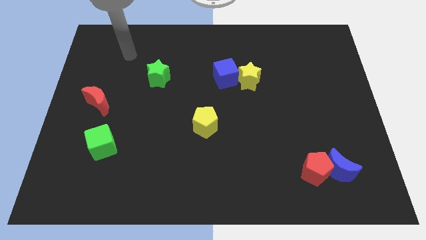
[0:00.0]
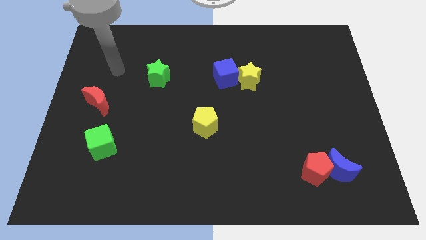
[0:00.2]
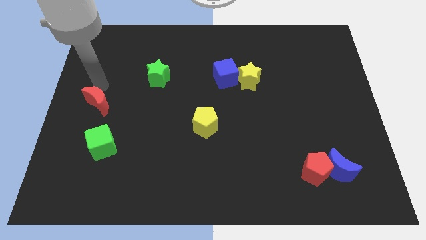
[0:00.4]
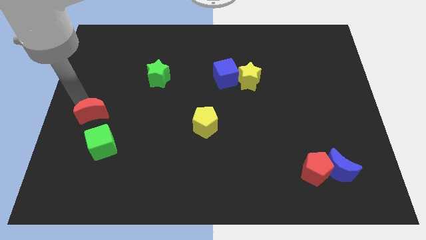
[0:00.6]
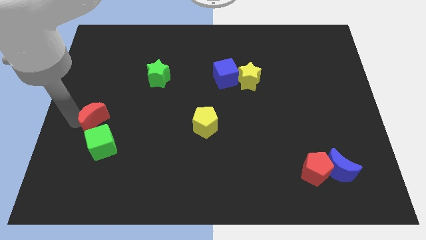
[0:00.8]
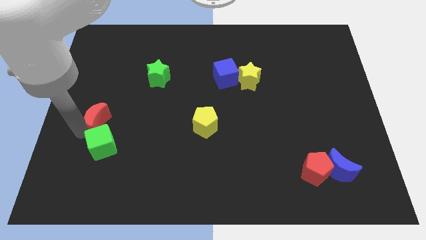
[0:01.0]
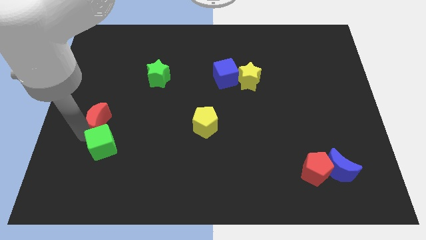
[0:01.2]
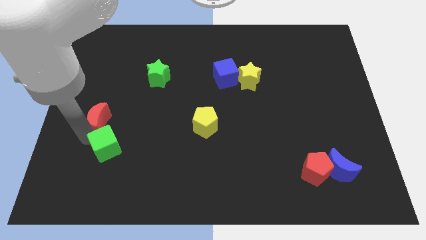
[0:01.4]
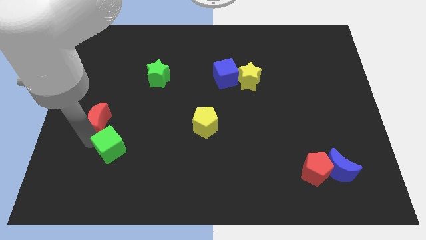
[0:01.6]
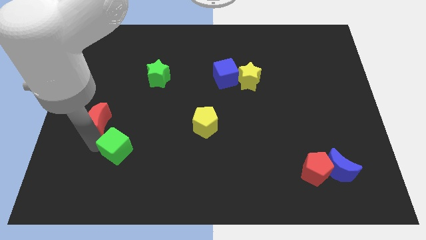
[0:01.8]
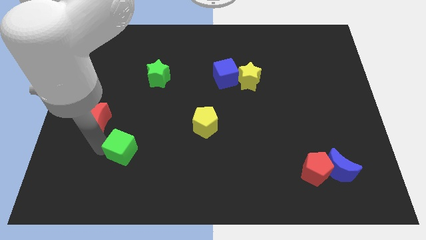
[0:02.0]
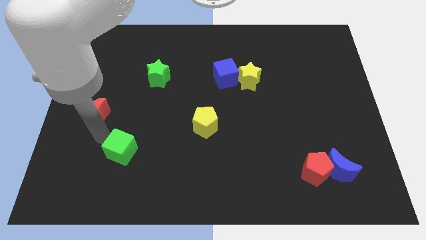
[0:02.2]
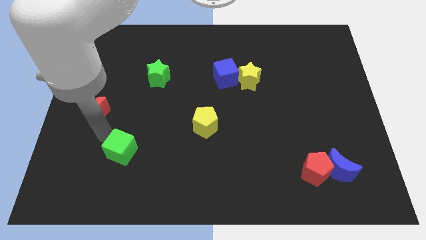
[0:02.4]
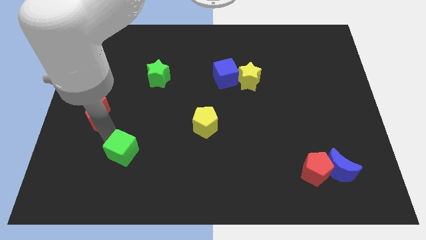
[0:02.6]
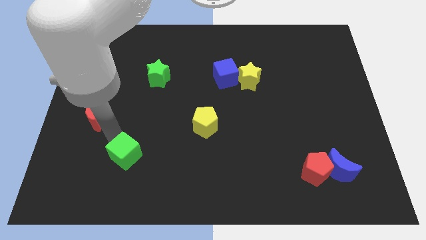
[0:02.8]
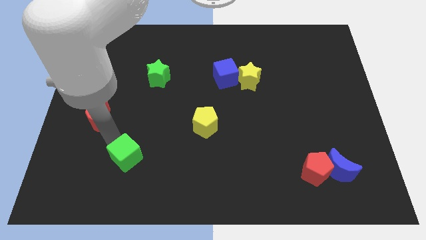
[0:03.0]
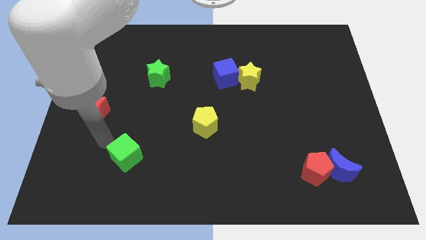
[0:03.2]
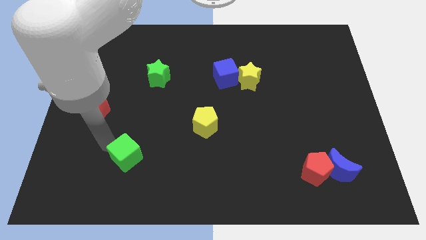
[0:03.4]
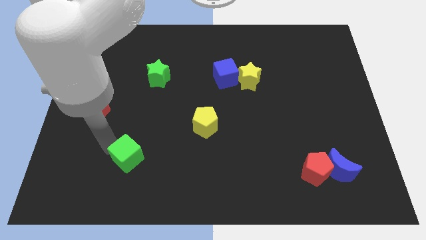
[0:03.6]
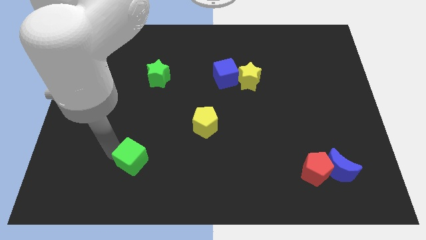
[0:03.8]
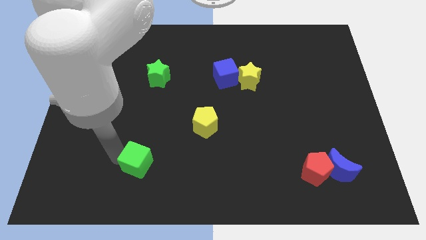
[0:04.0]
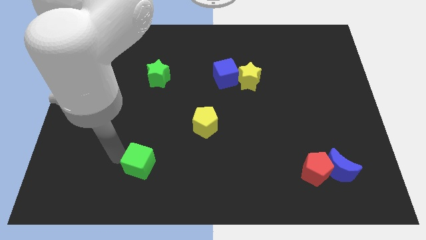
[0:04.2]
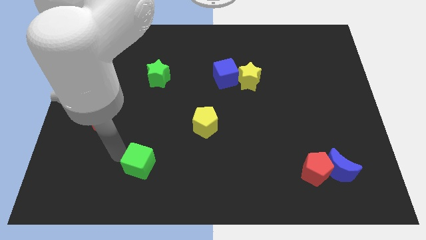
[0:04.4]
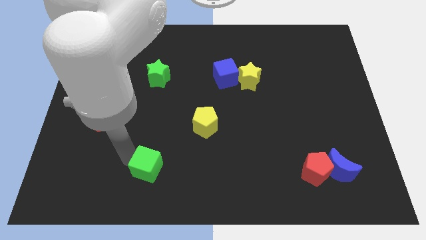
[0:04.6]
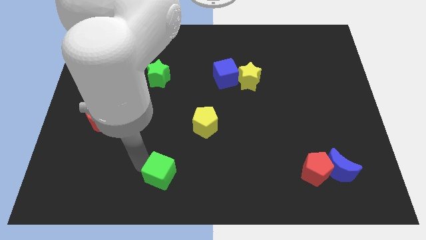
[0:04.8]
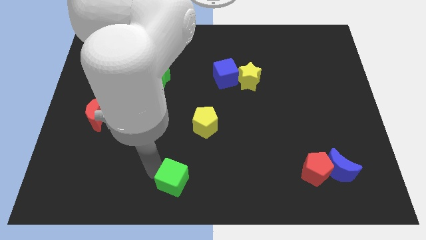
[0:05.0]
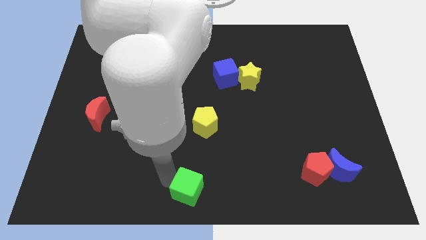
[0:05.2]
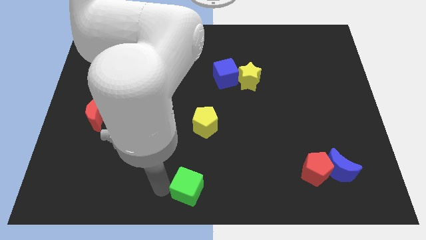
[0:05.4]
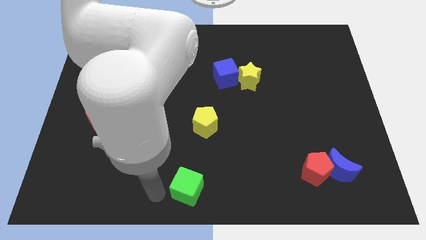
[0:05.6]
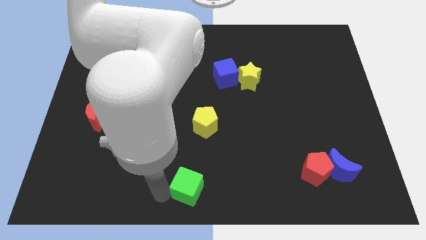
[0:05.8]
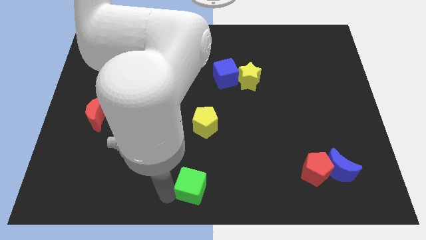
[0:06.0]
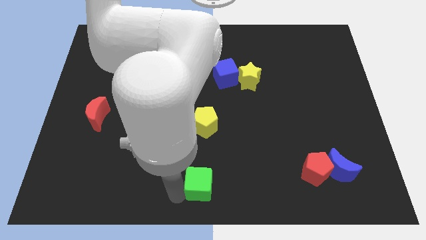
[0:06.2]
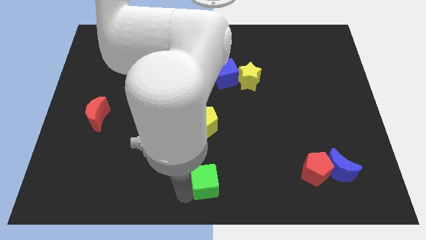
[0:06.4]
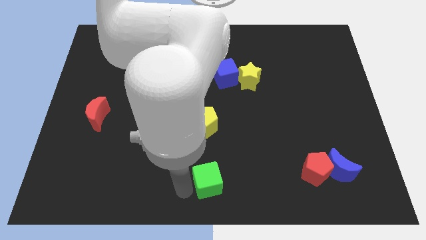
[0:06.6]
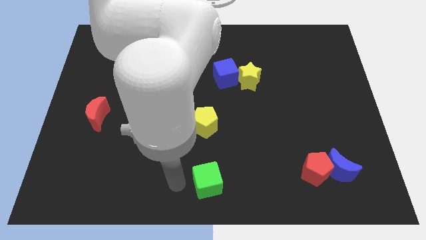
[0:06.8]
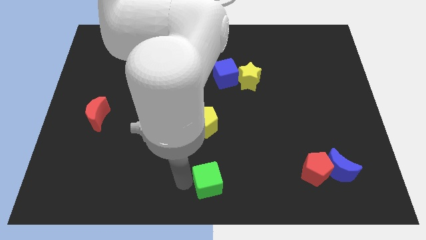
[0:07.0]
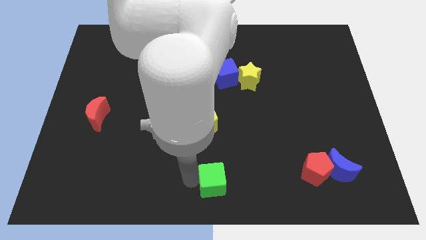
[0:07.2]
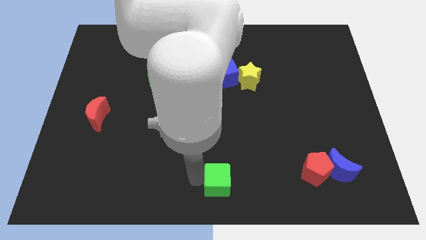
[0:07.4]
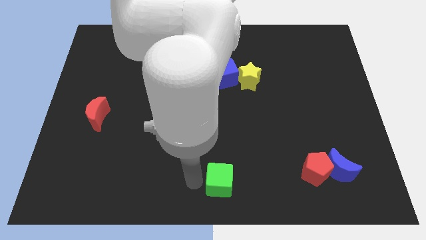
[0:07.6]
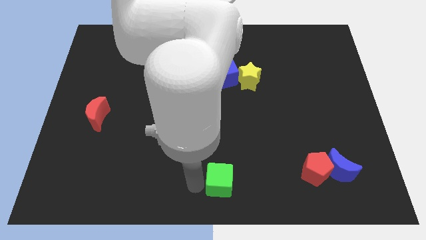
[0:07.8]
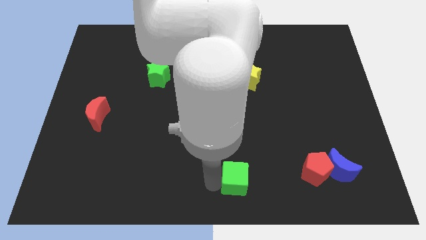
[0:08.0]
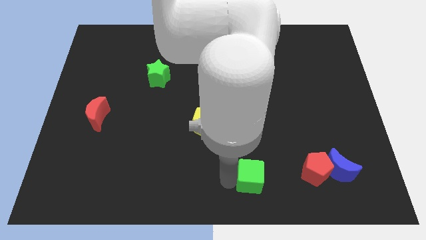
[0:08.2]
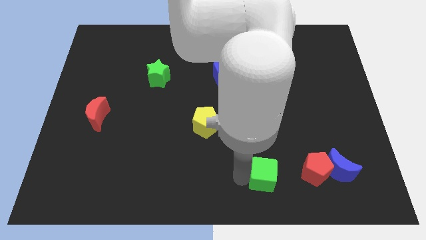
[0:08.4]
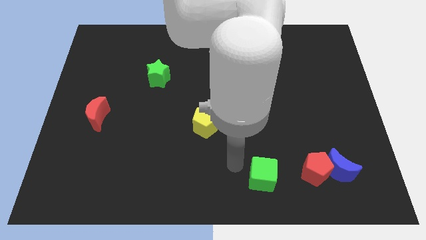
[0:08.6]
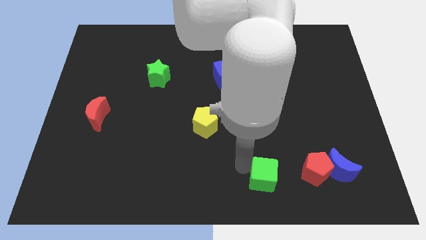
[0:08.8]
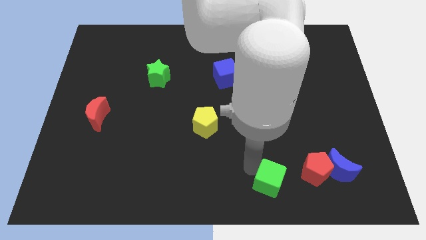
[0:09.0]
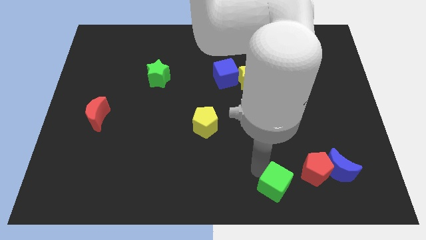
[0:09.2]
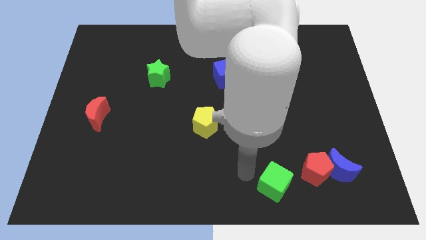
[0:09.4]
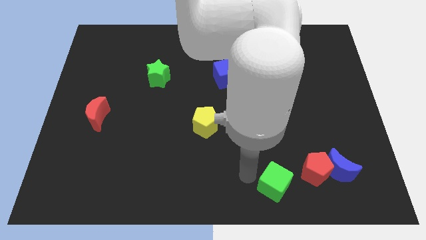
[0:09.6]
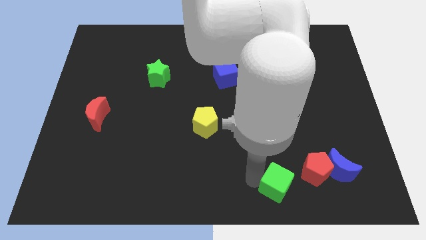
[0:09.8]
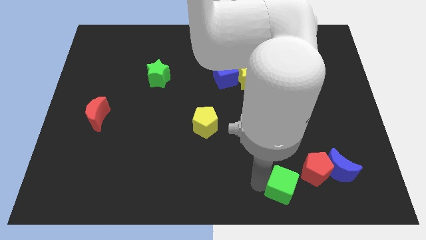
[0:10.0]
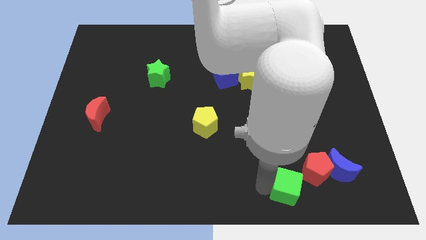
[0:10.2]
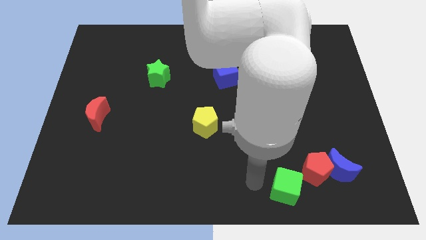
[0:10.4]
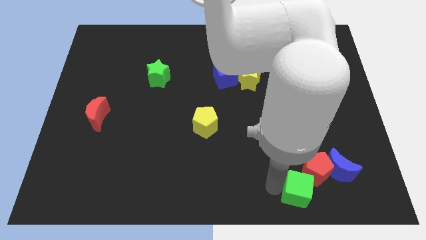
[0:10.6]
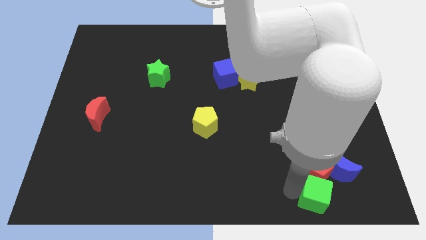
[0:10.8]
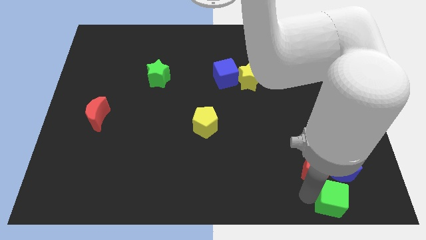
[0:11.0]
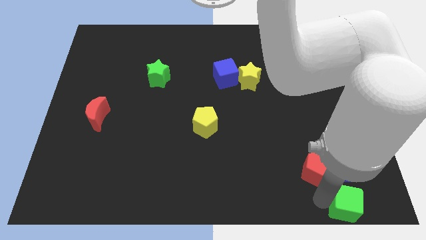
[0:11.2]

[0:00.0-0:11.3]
put the green cube to the lower right corner

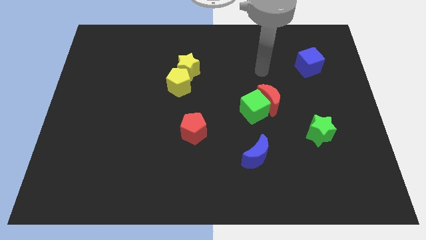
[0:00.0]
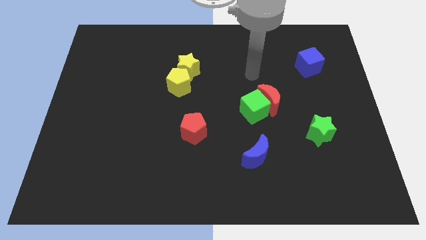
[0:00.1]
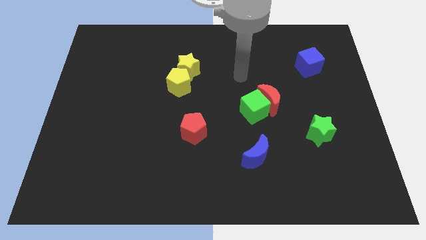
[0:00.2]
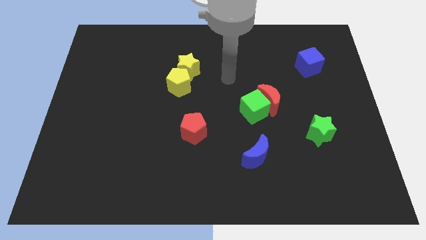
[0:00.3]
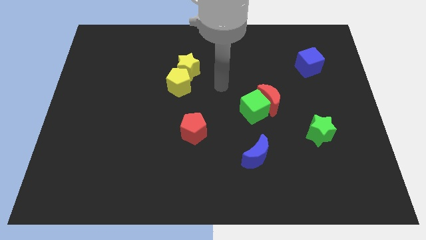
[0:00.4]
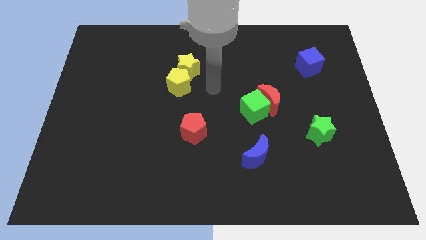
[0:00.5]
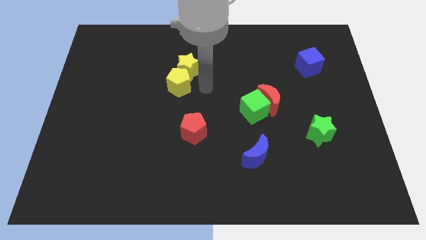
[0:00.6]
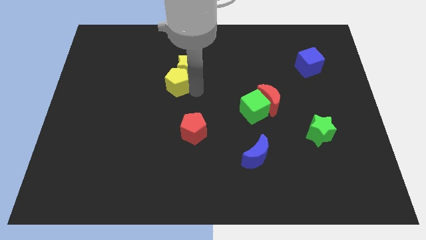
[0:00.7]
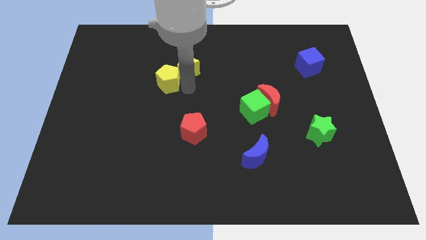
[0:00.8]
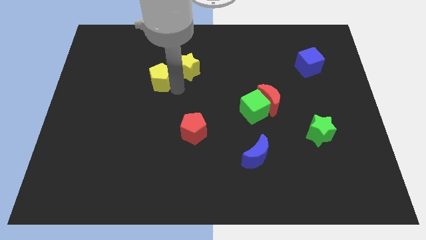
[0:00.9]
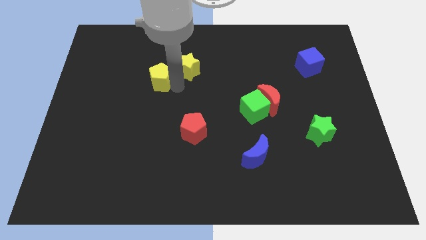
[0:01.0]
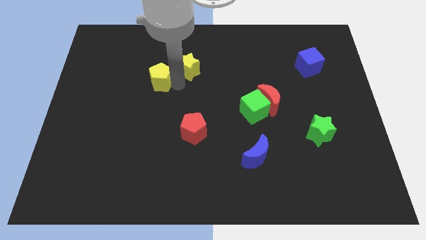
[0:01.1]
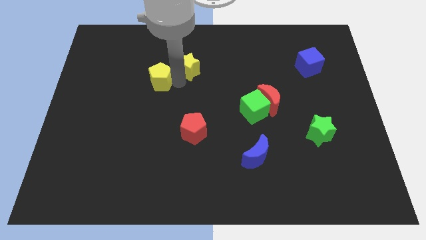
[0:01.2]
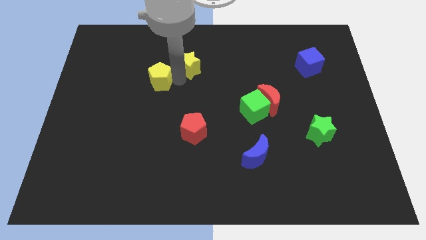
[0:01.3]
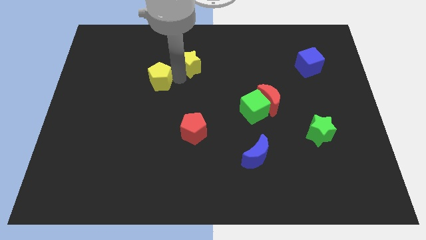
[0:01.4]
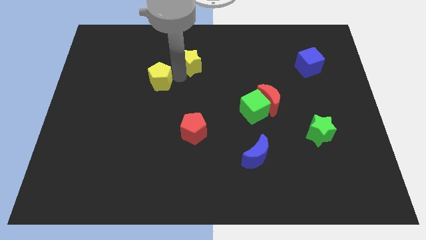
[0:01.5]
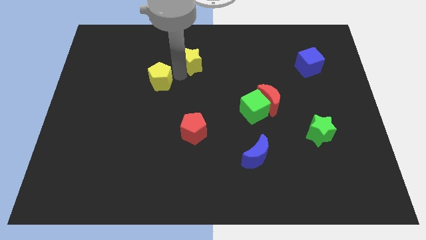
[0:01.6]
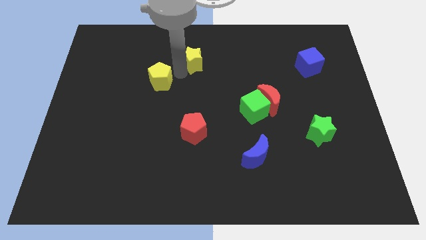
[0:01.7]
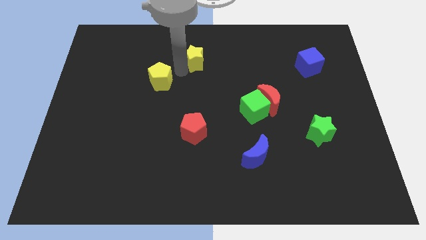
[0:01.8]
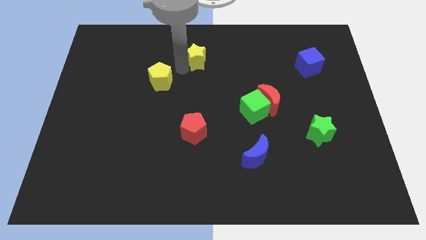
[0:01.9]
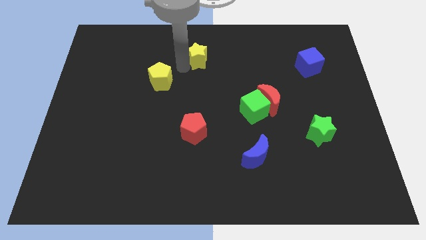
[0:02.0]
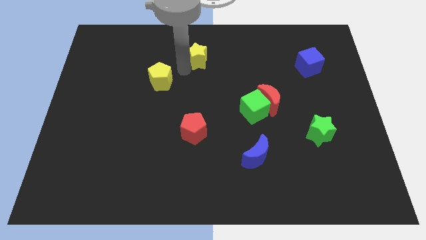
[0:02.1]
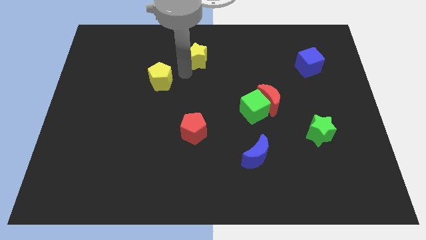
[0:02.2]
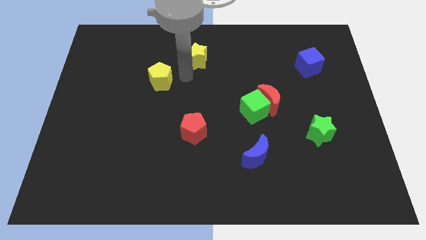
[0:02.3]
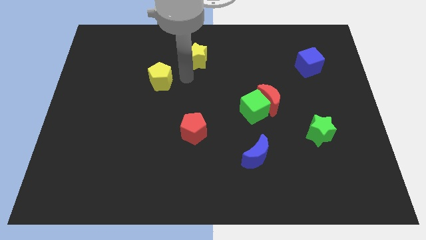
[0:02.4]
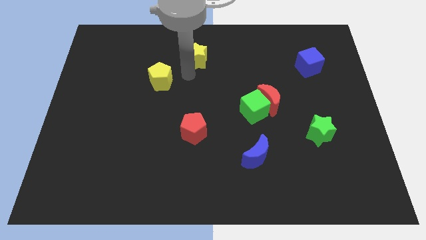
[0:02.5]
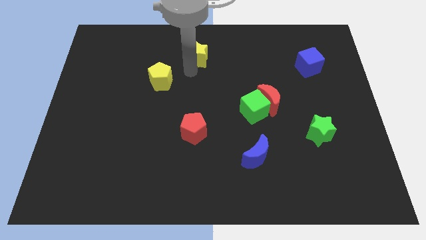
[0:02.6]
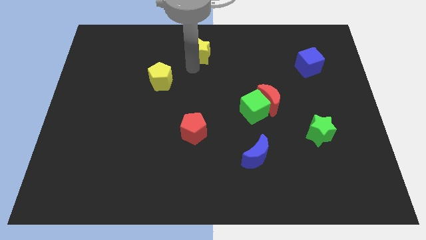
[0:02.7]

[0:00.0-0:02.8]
push the yellow star to the towards your base
